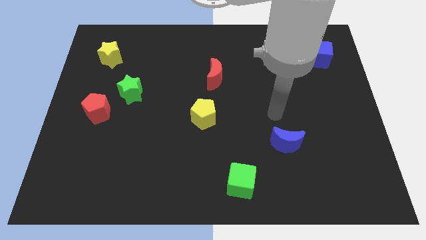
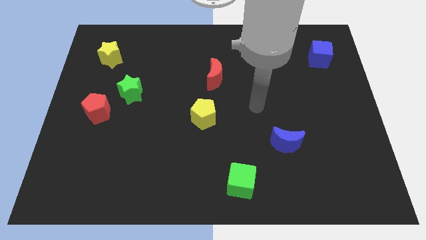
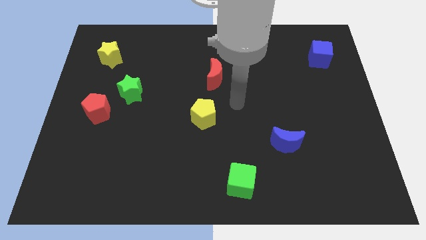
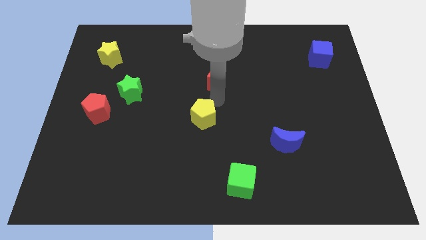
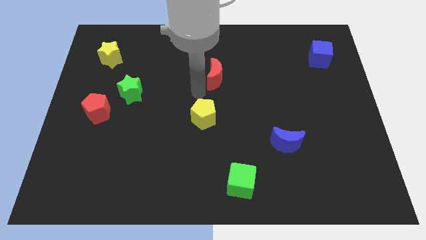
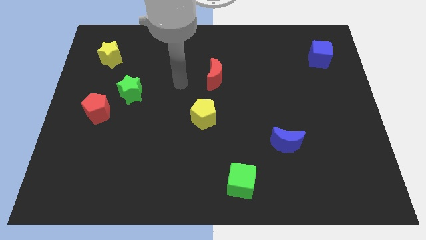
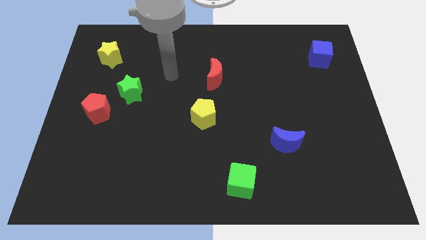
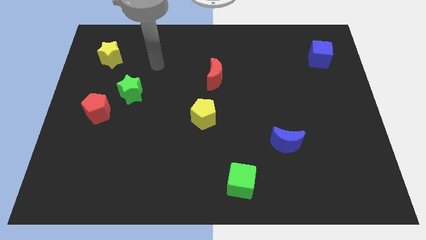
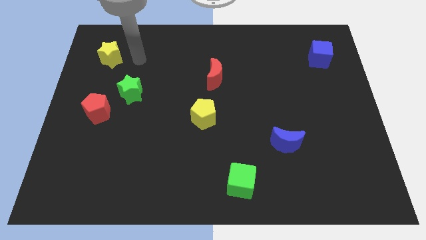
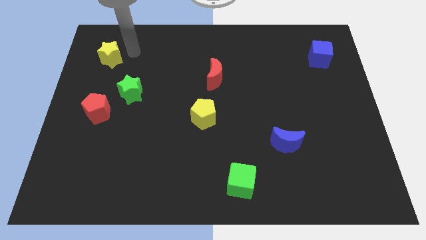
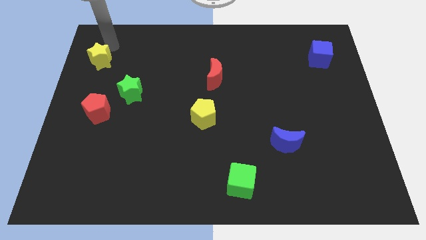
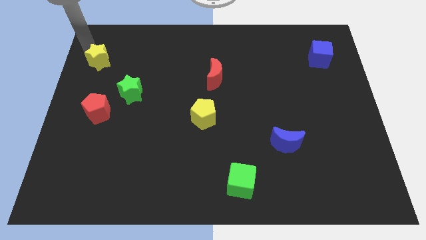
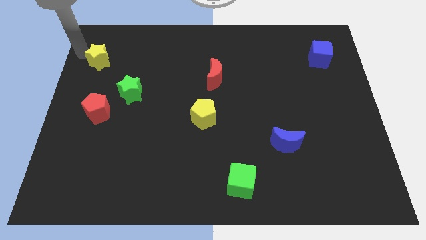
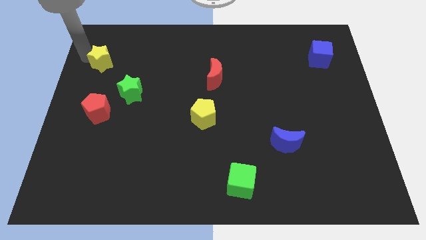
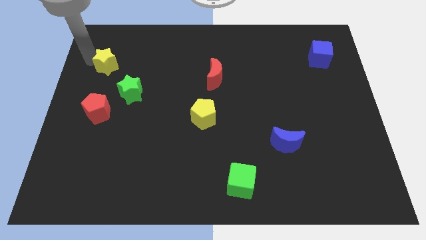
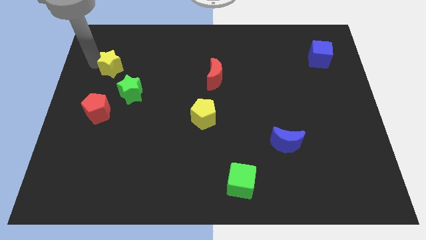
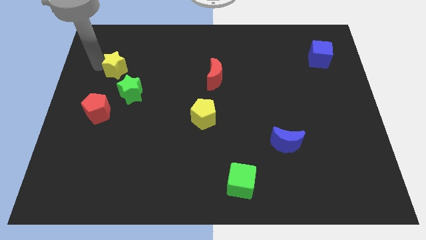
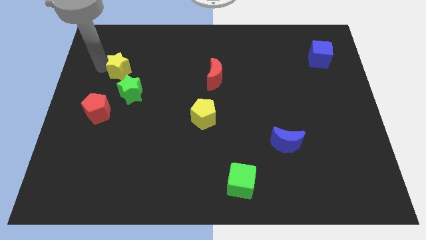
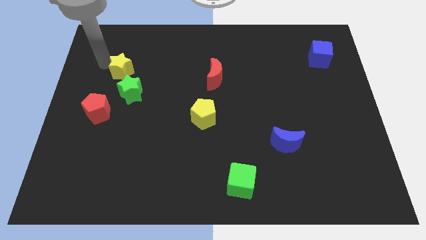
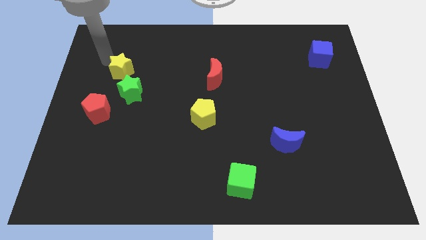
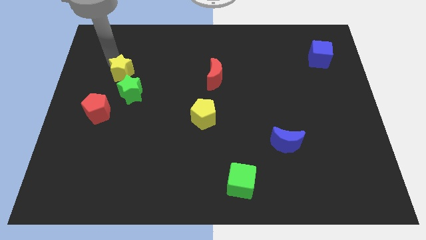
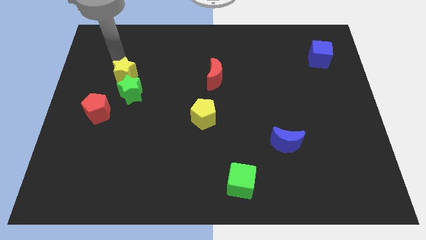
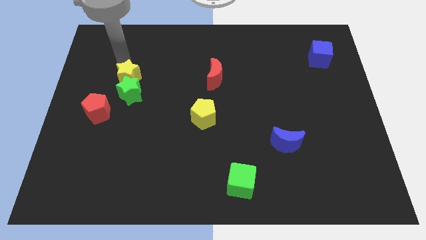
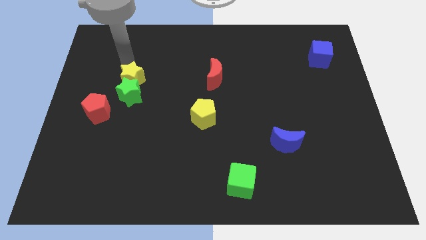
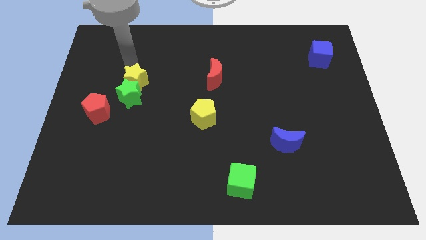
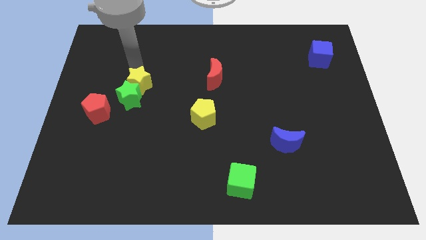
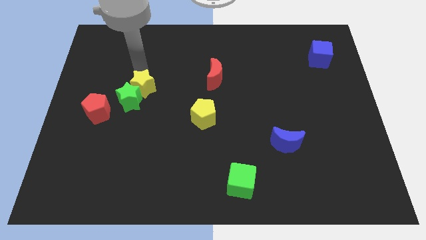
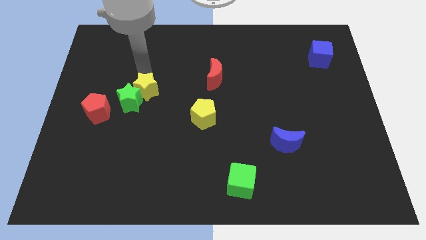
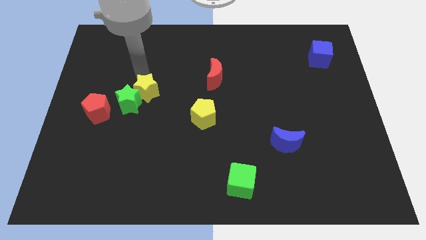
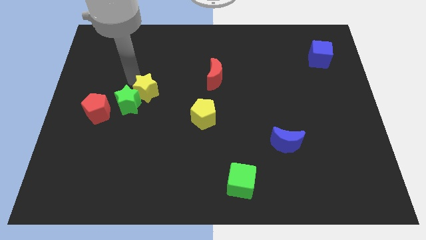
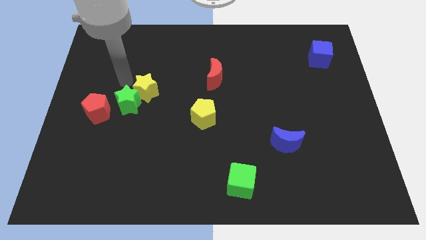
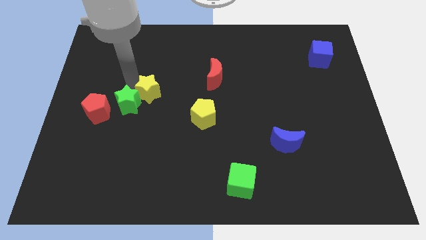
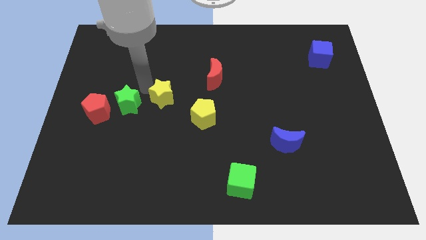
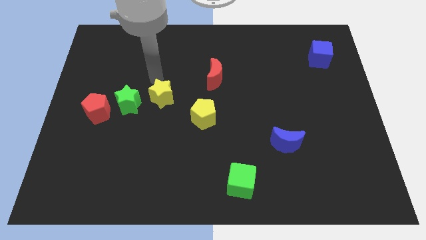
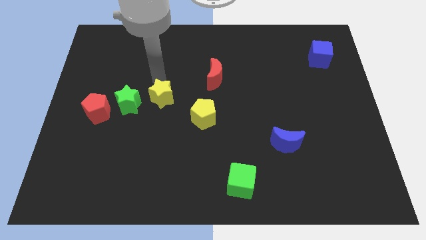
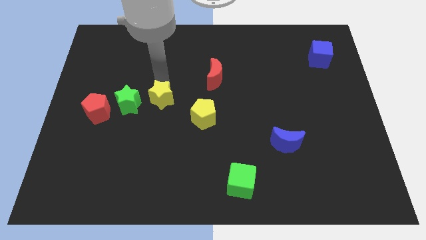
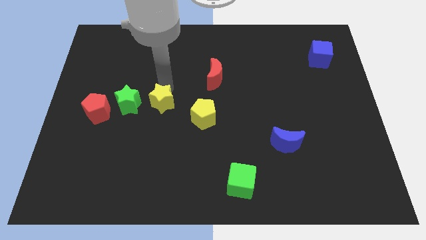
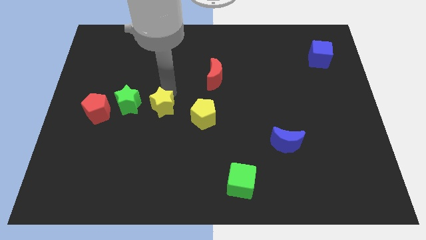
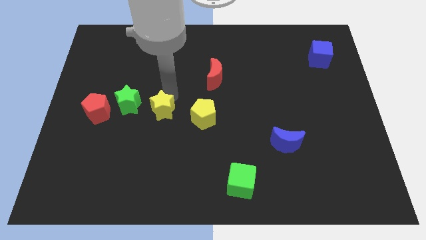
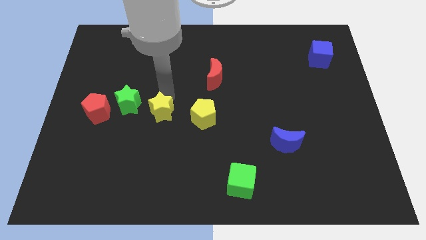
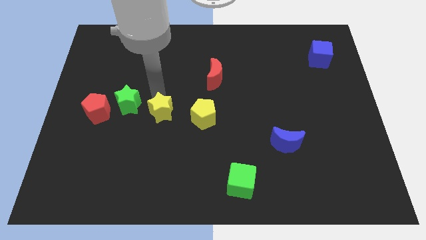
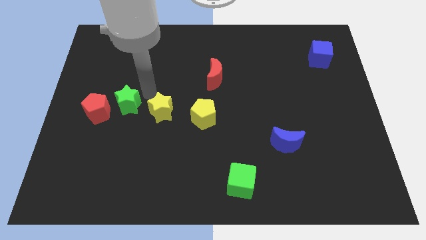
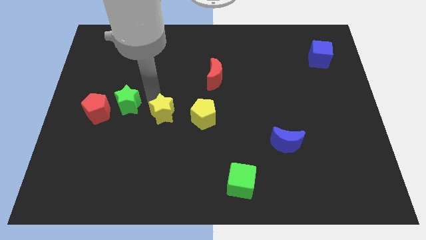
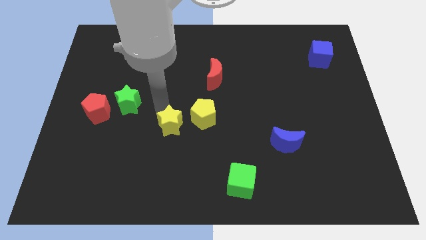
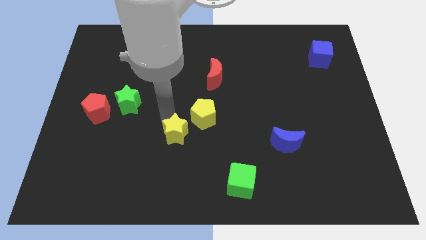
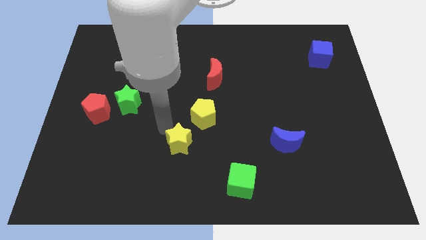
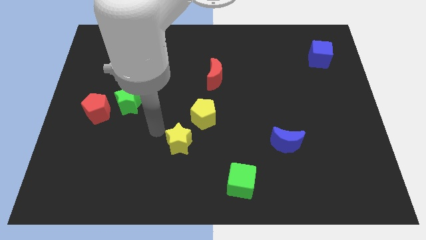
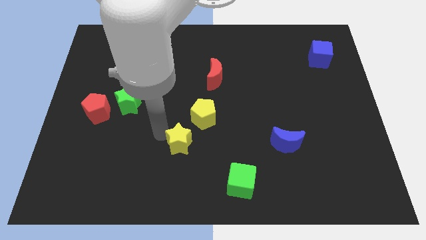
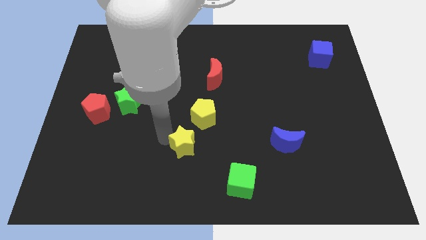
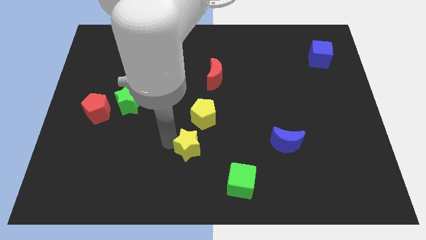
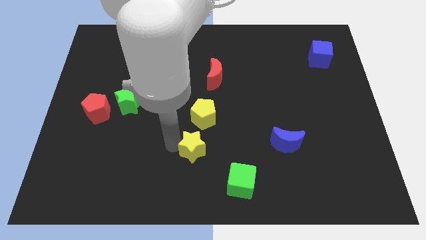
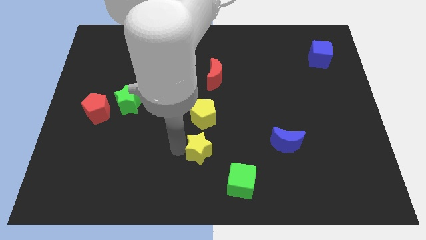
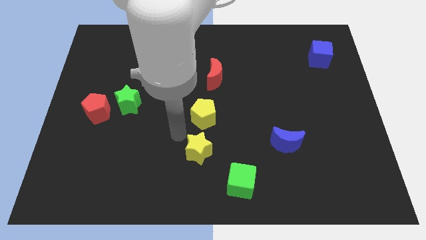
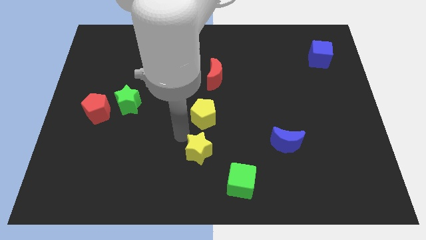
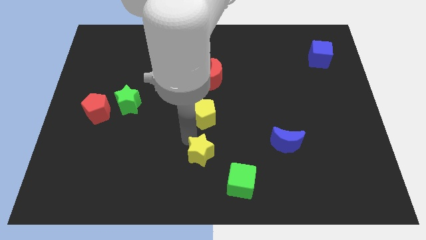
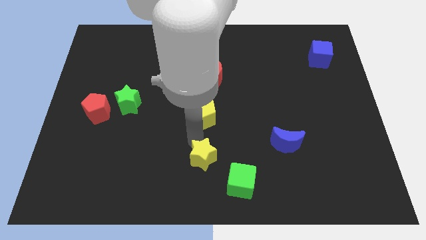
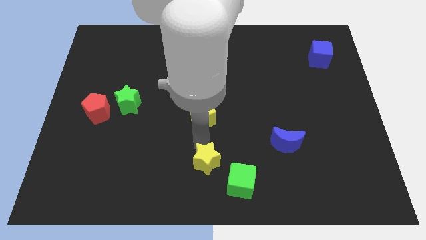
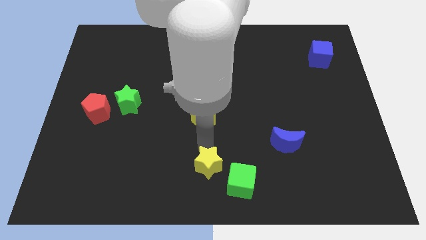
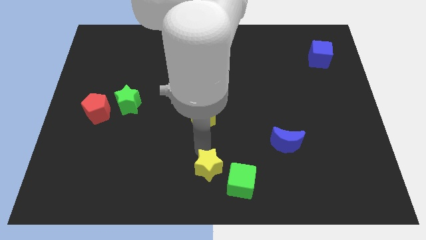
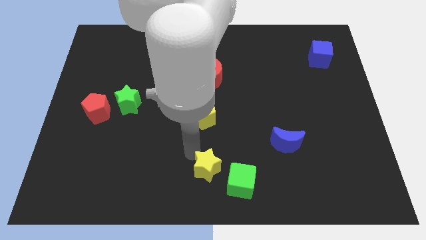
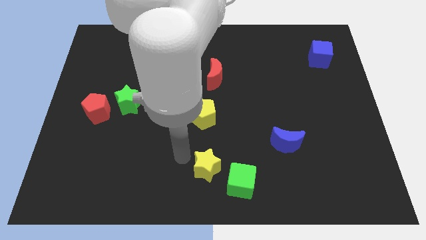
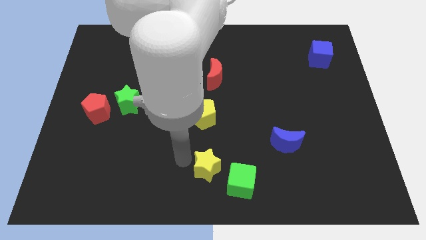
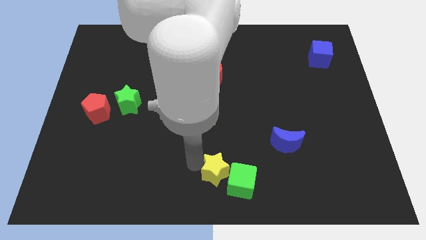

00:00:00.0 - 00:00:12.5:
push the yellow star next to the green cube
